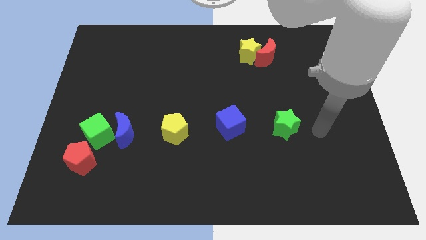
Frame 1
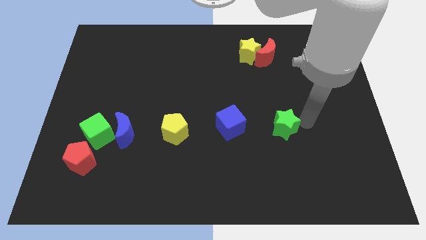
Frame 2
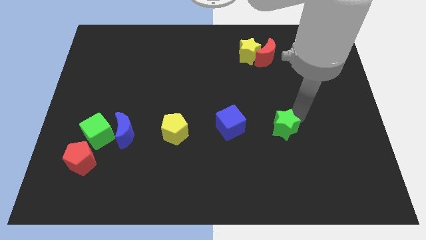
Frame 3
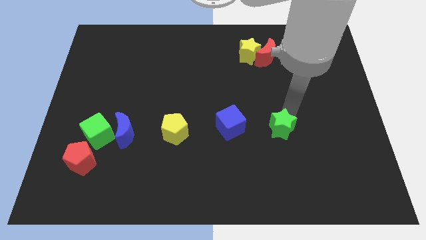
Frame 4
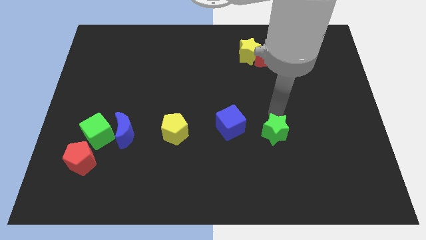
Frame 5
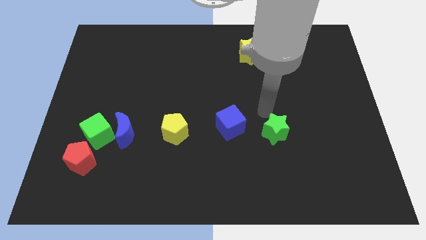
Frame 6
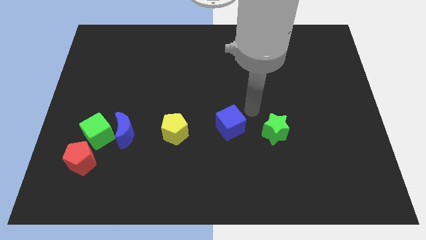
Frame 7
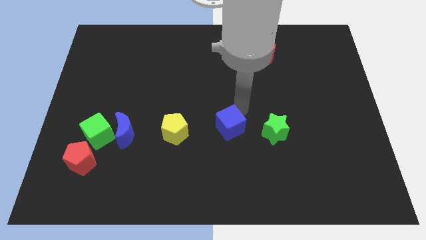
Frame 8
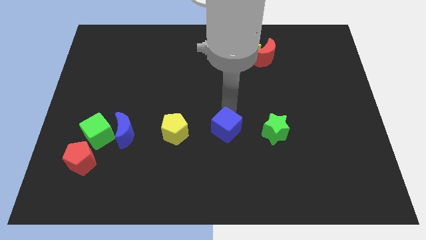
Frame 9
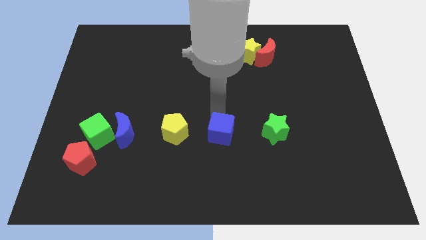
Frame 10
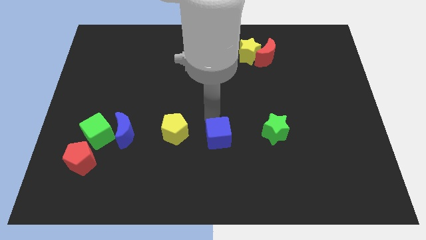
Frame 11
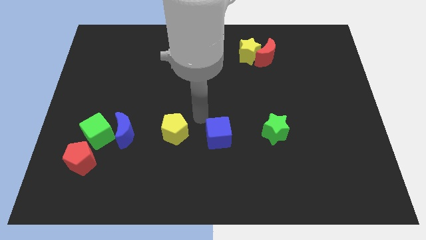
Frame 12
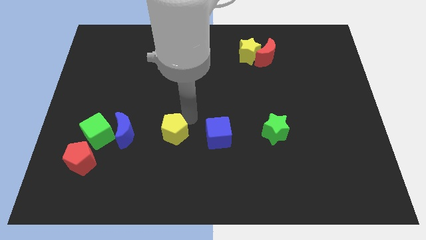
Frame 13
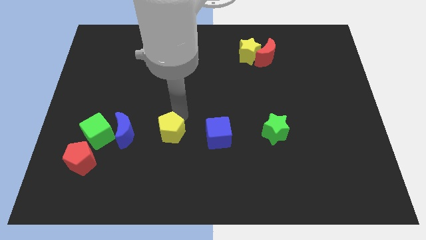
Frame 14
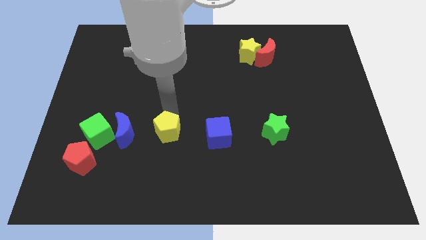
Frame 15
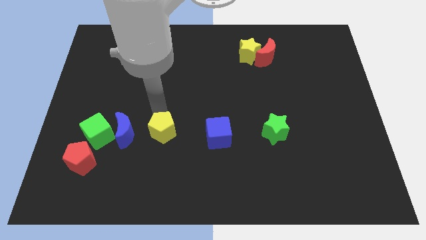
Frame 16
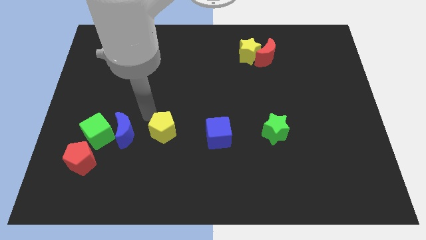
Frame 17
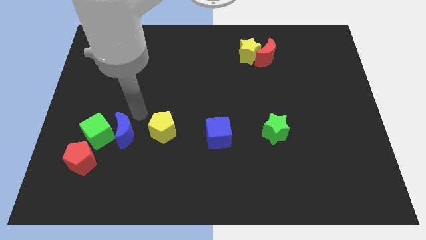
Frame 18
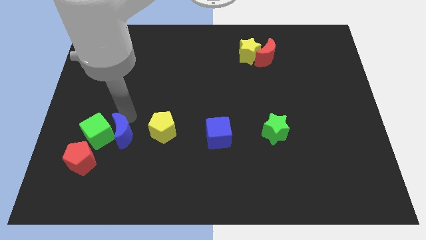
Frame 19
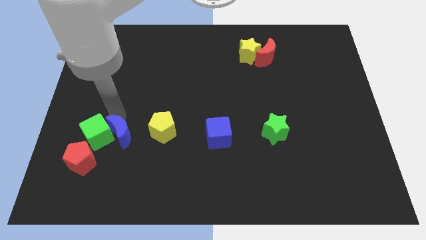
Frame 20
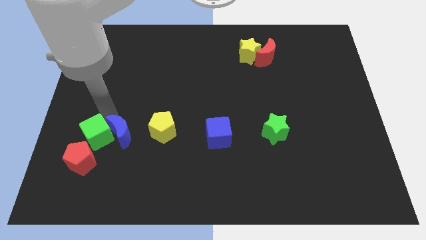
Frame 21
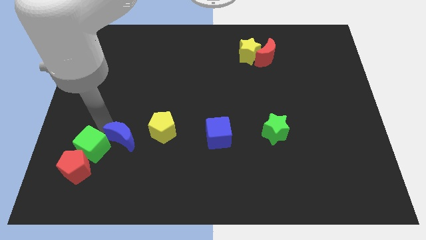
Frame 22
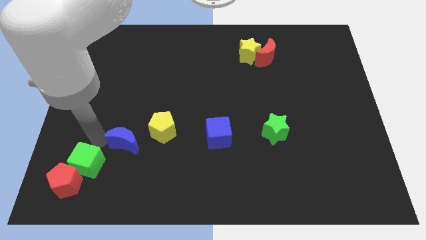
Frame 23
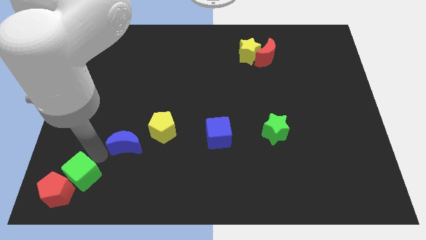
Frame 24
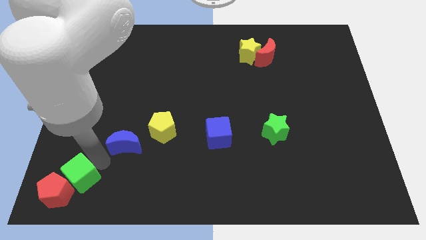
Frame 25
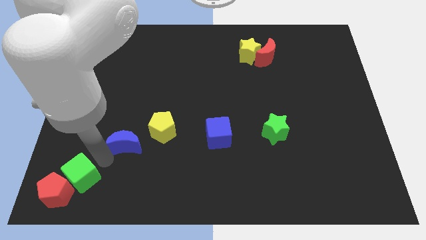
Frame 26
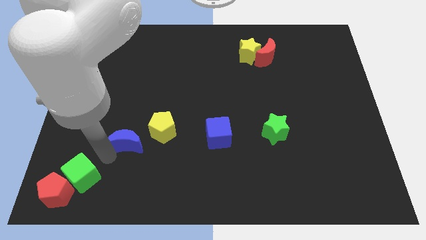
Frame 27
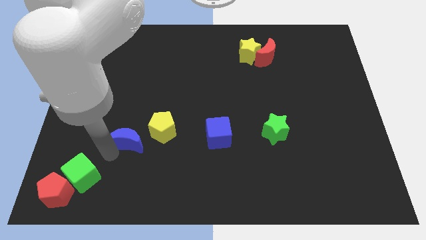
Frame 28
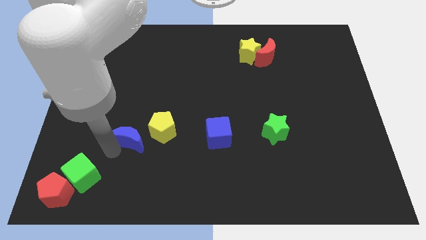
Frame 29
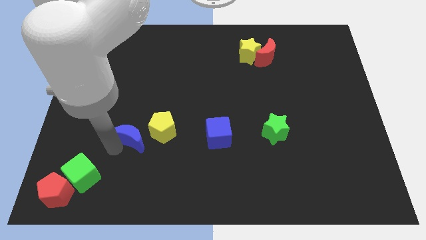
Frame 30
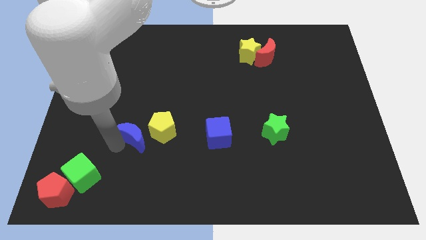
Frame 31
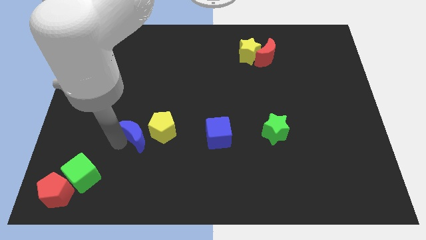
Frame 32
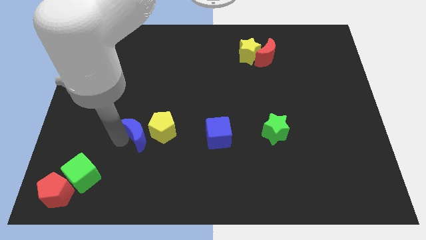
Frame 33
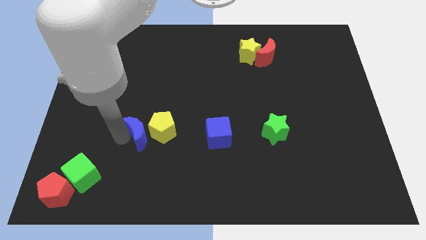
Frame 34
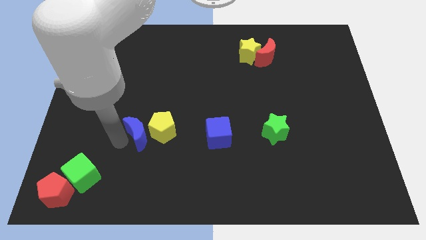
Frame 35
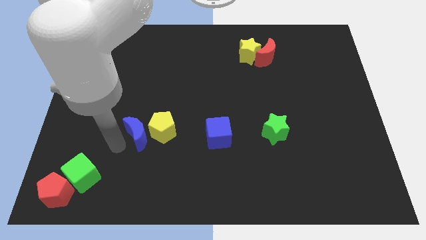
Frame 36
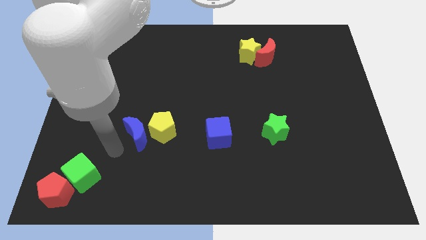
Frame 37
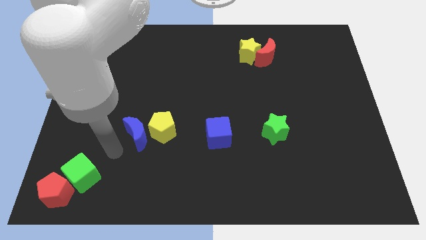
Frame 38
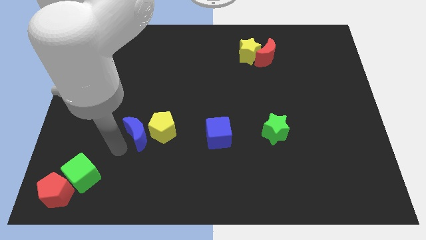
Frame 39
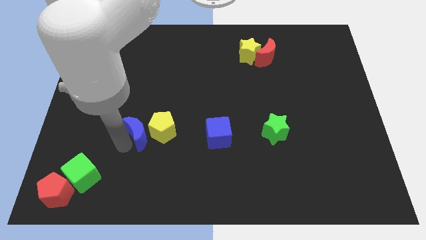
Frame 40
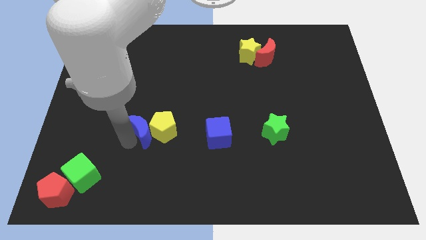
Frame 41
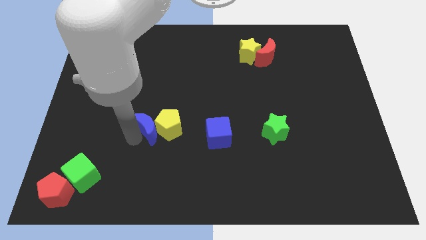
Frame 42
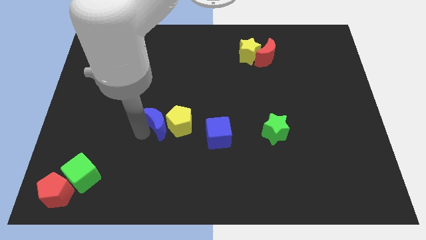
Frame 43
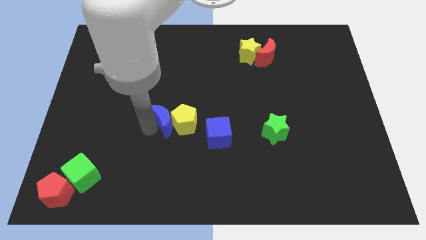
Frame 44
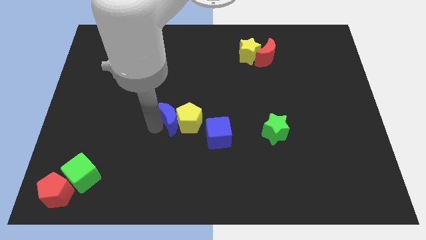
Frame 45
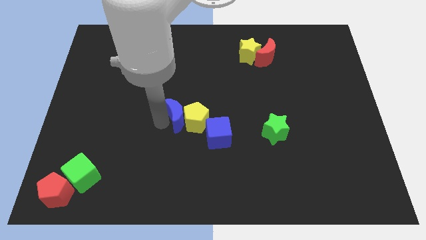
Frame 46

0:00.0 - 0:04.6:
move the blue moon diagonally up and to the left of the blue cube

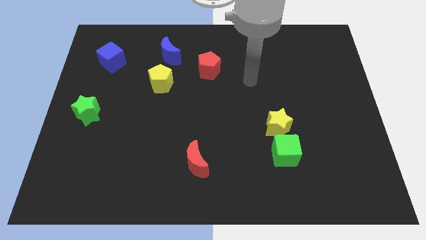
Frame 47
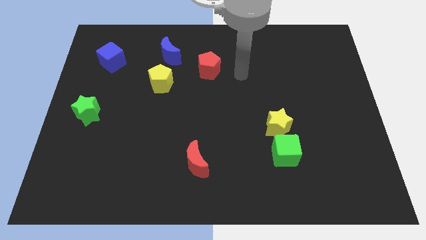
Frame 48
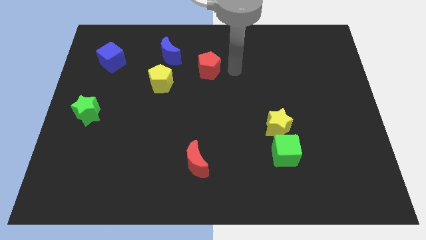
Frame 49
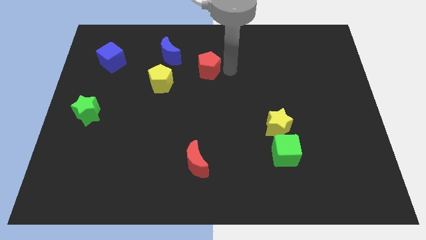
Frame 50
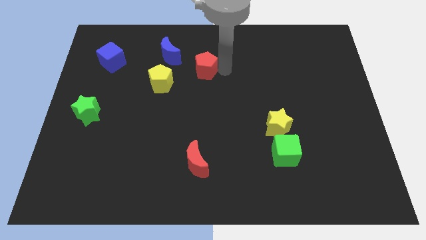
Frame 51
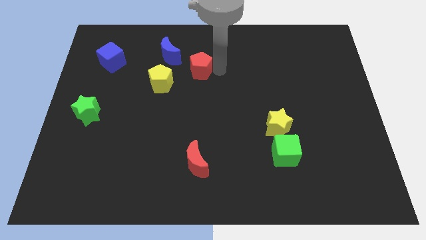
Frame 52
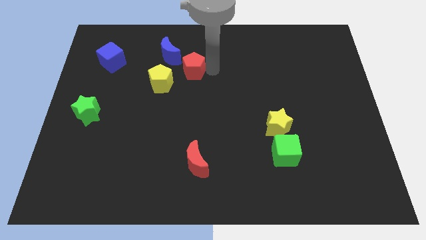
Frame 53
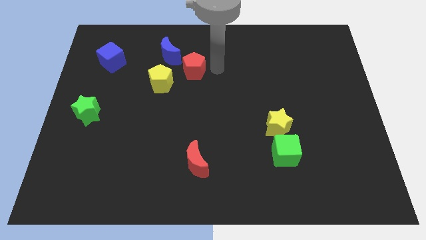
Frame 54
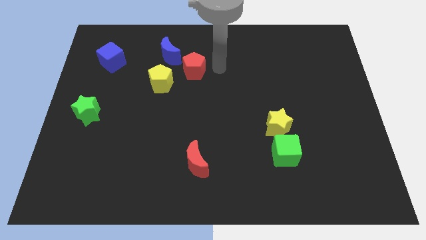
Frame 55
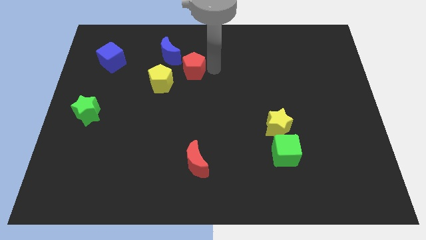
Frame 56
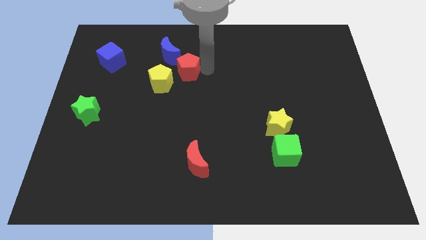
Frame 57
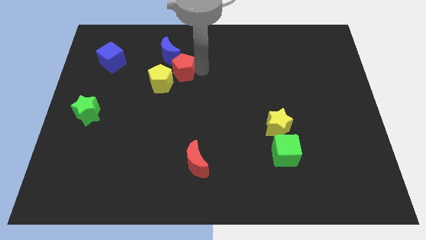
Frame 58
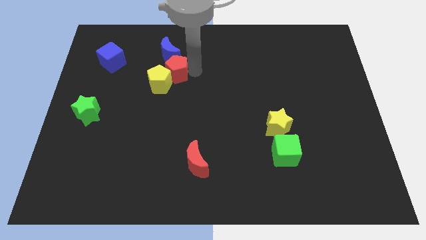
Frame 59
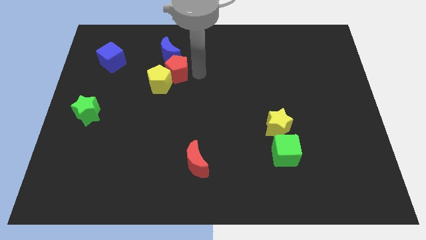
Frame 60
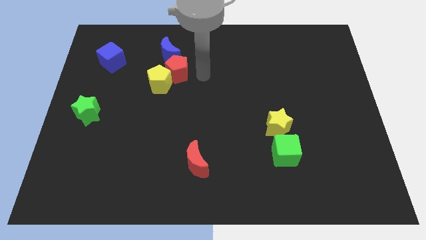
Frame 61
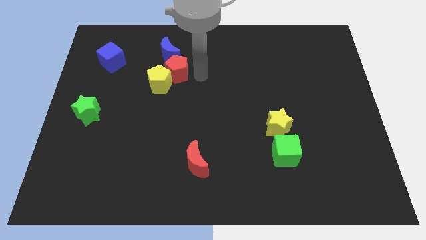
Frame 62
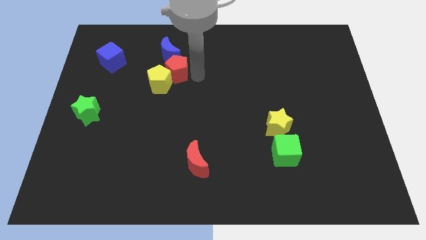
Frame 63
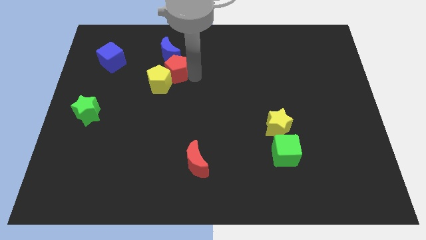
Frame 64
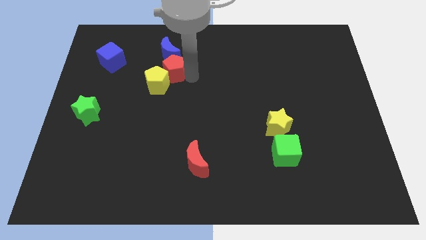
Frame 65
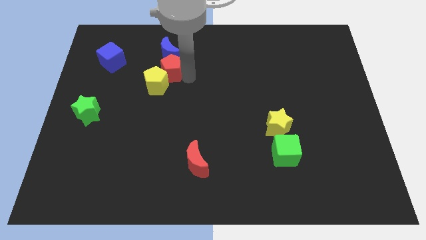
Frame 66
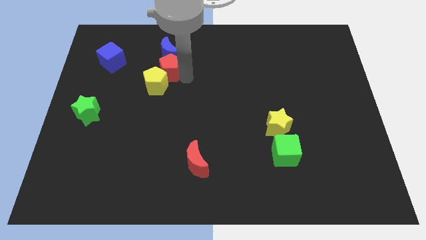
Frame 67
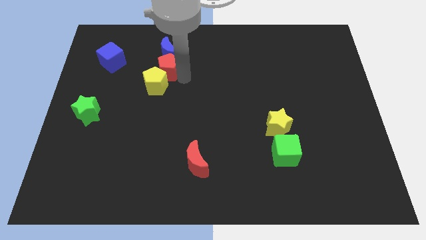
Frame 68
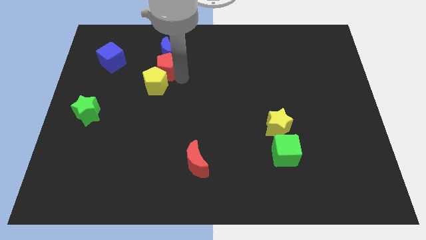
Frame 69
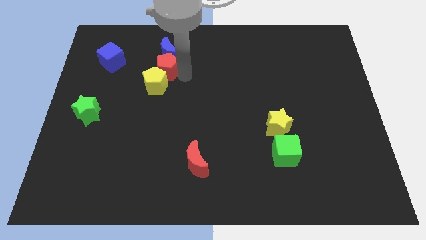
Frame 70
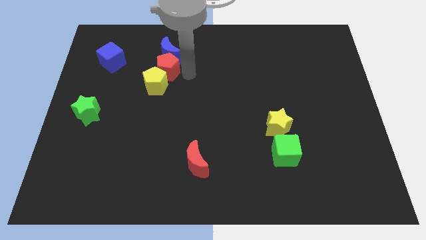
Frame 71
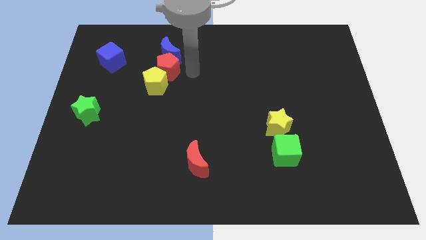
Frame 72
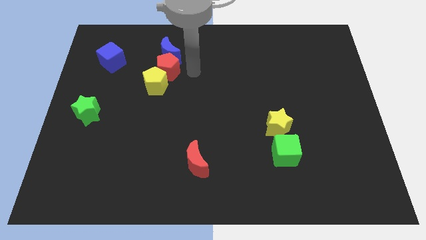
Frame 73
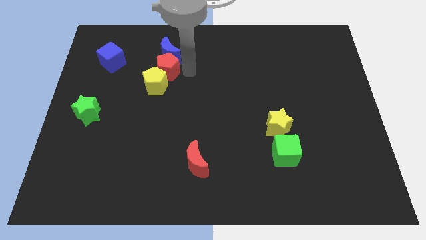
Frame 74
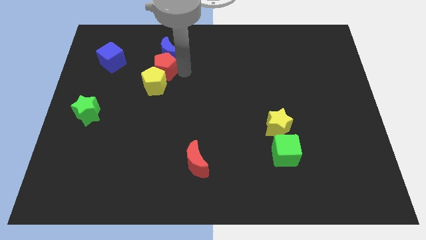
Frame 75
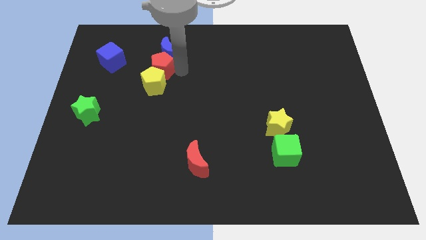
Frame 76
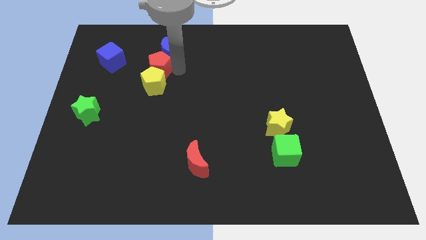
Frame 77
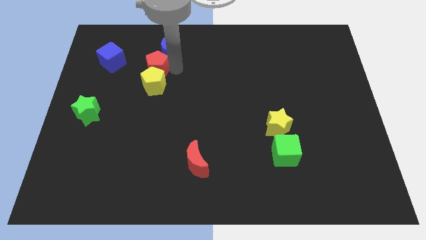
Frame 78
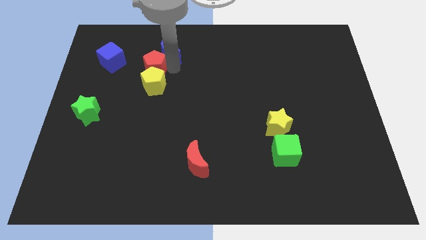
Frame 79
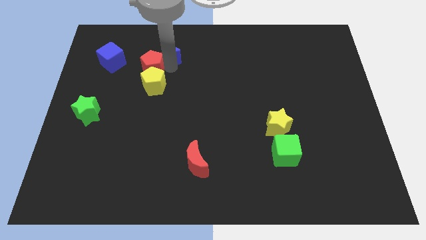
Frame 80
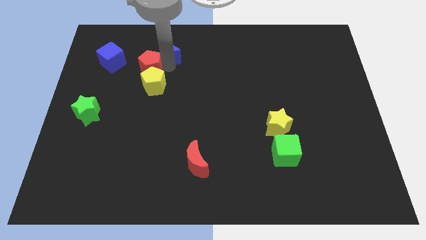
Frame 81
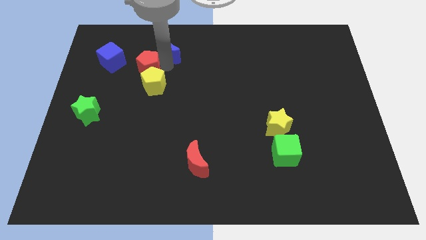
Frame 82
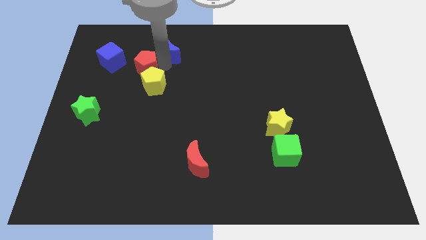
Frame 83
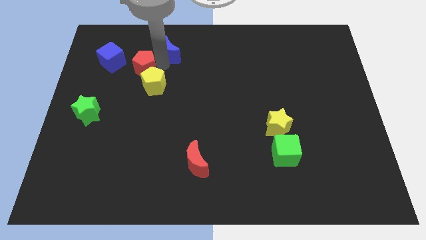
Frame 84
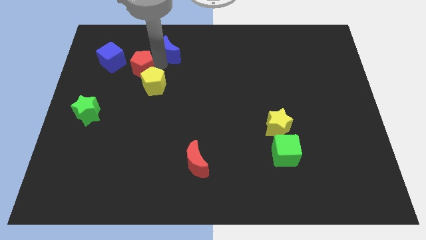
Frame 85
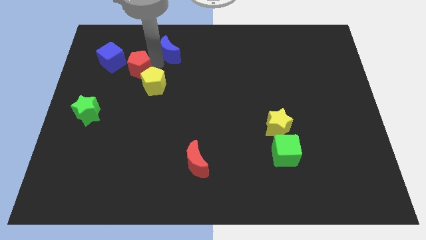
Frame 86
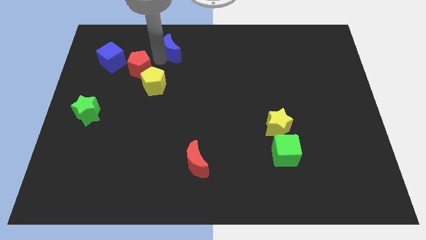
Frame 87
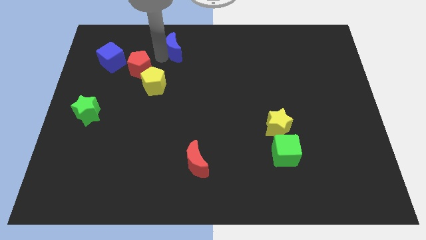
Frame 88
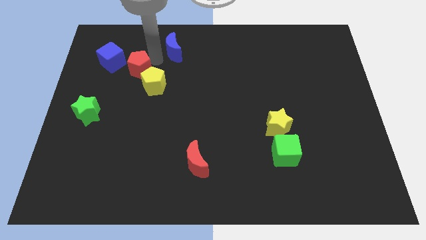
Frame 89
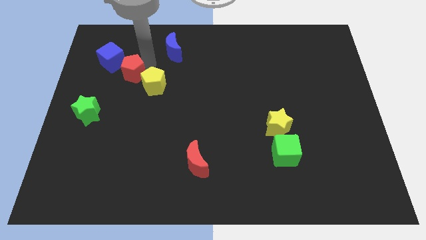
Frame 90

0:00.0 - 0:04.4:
move the red pentagon to the left side of the yellow pentagon
